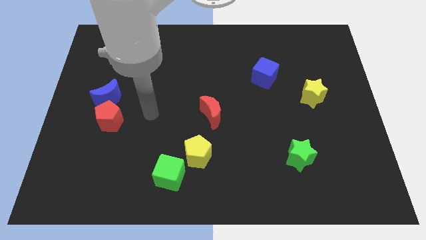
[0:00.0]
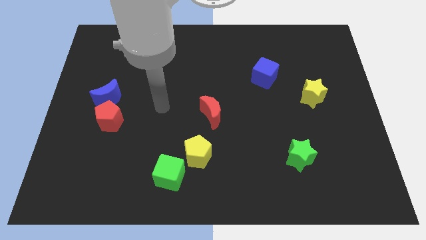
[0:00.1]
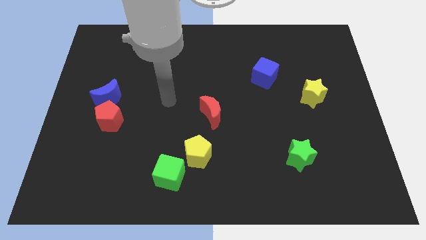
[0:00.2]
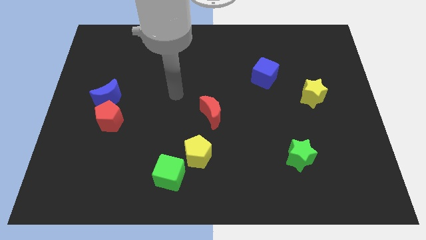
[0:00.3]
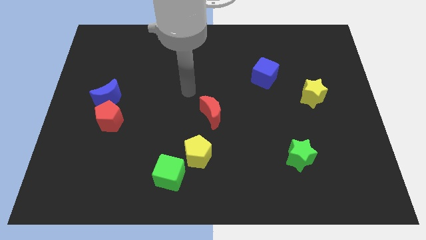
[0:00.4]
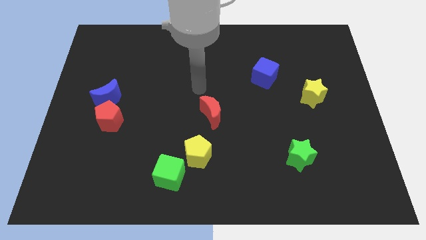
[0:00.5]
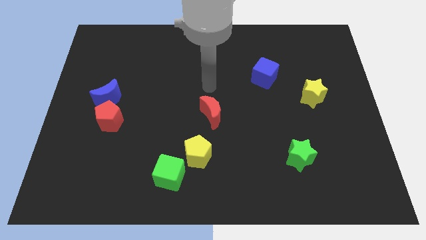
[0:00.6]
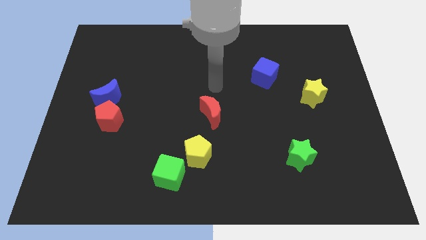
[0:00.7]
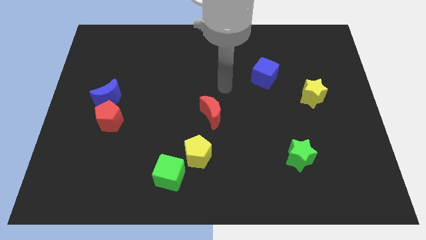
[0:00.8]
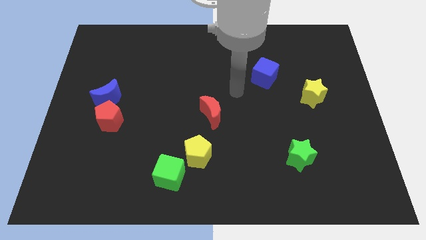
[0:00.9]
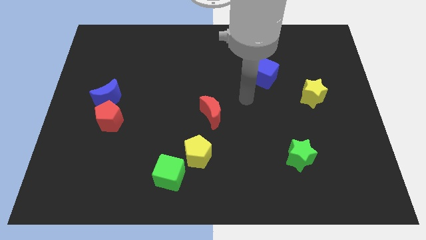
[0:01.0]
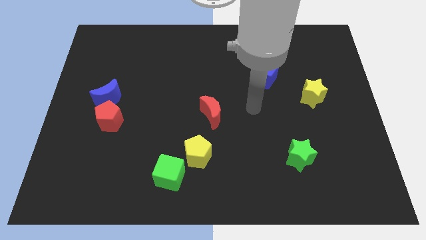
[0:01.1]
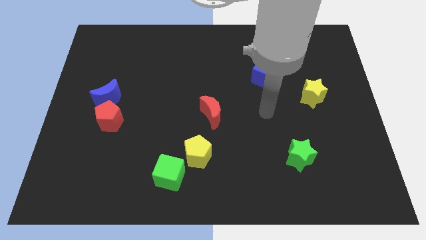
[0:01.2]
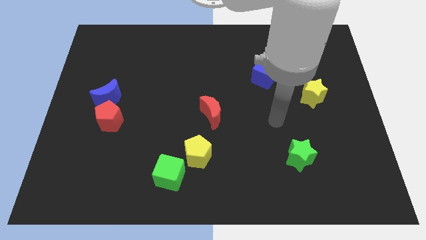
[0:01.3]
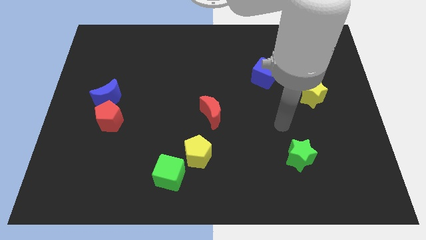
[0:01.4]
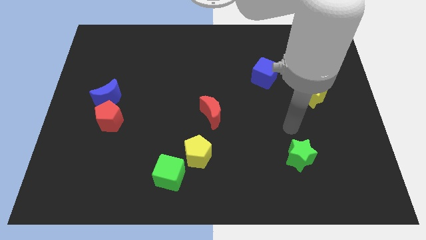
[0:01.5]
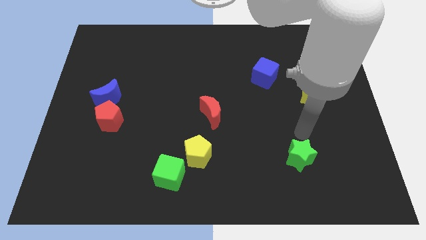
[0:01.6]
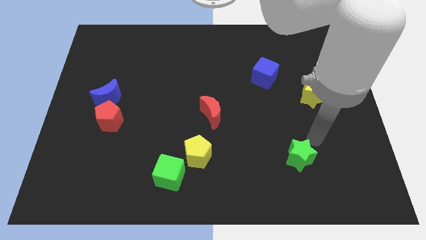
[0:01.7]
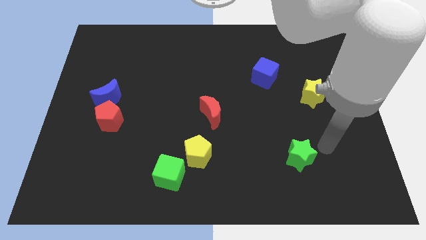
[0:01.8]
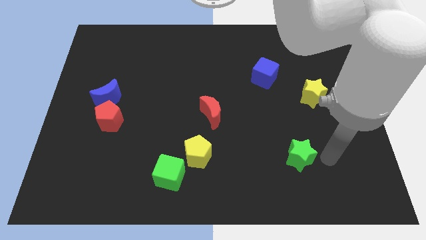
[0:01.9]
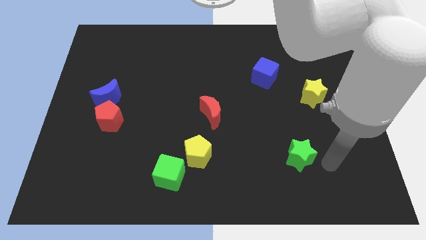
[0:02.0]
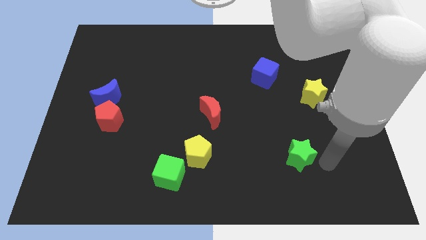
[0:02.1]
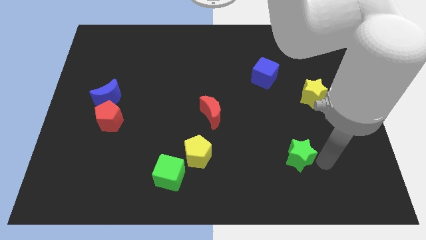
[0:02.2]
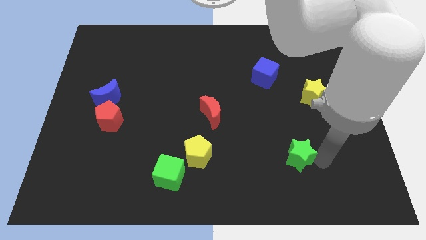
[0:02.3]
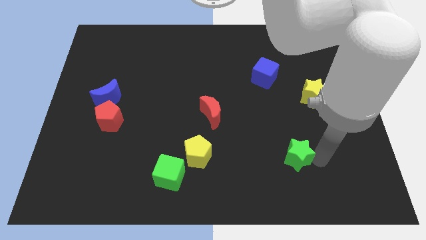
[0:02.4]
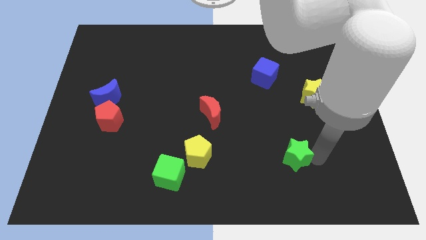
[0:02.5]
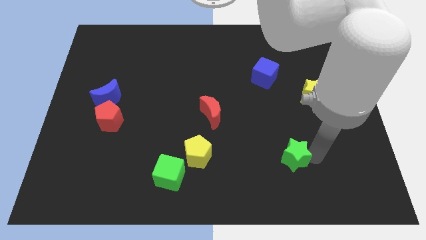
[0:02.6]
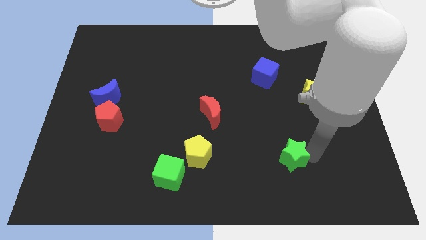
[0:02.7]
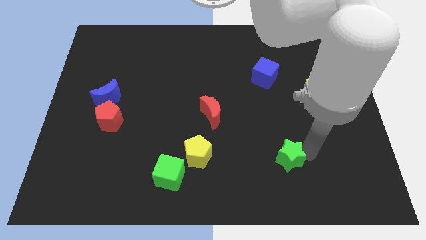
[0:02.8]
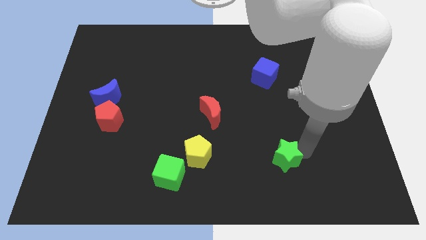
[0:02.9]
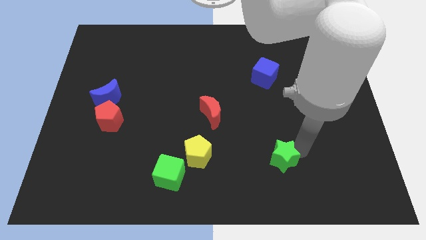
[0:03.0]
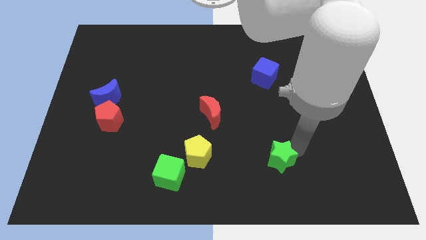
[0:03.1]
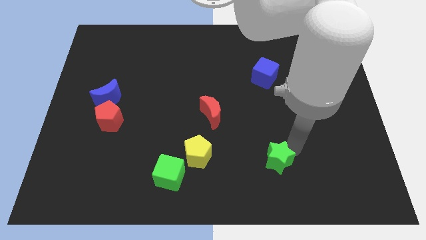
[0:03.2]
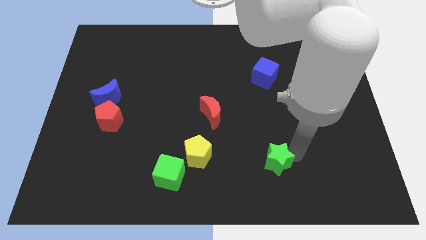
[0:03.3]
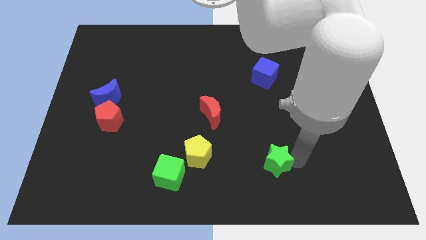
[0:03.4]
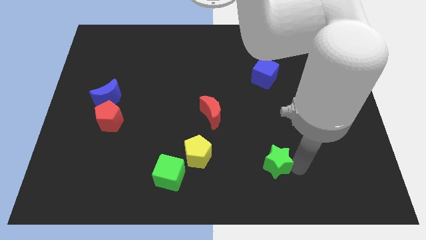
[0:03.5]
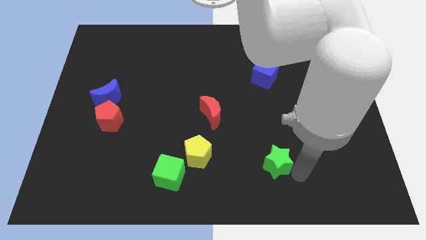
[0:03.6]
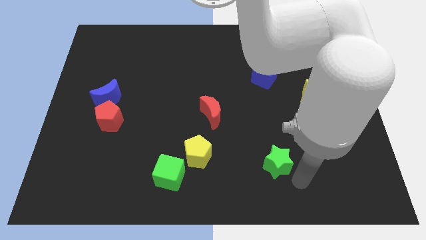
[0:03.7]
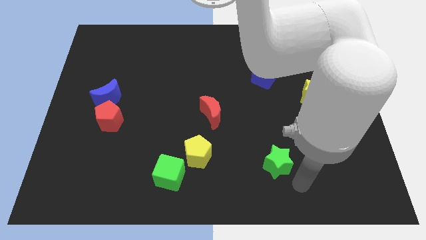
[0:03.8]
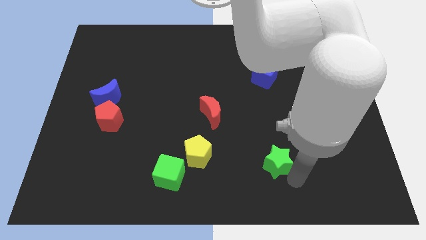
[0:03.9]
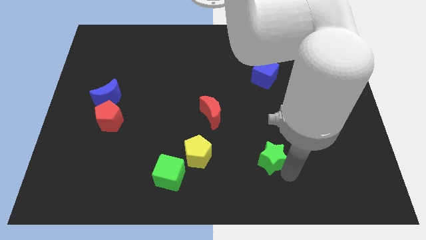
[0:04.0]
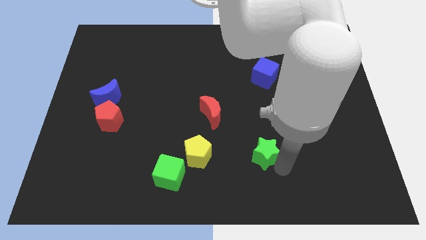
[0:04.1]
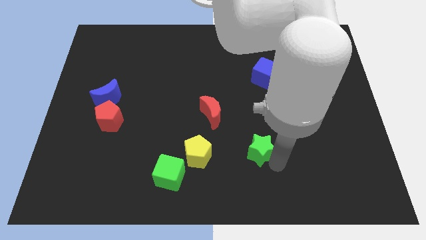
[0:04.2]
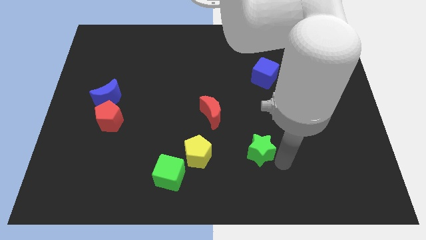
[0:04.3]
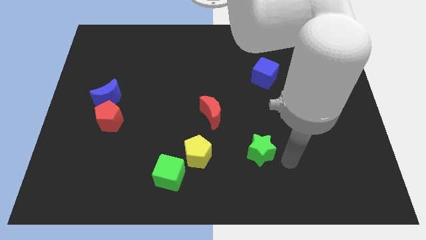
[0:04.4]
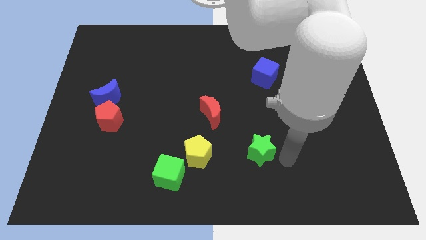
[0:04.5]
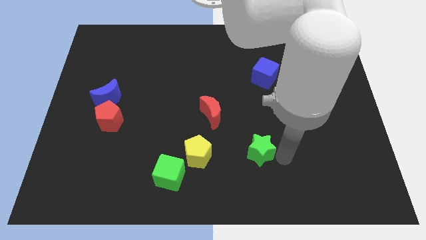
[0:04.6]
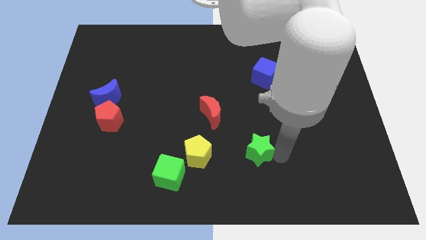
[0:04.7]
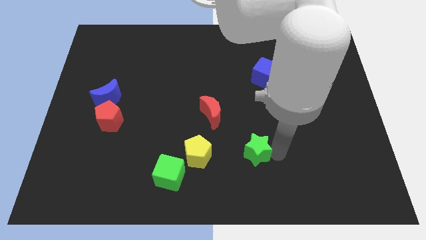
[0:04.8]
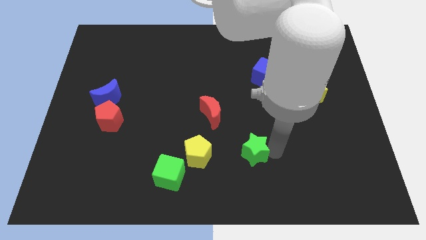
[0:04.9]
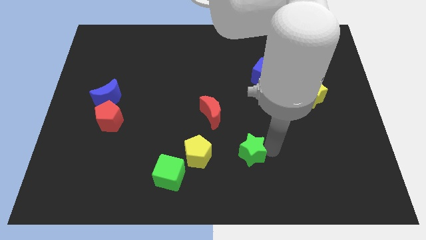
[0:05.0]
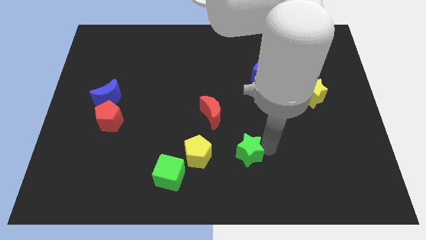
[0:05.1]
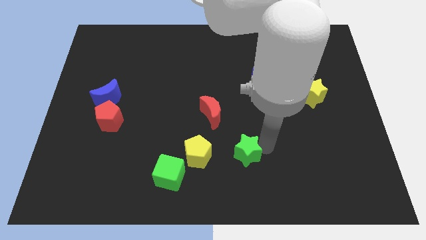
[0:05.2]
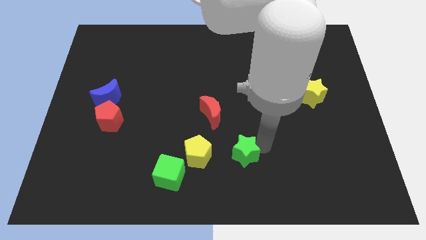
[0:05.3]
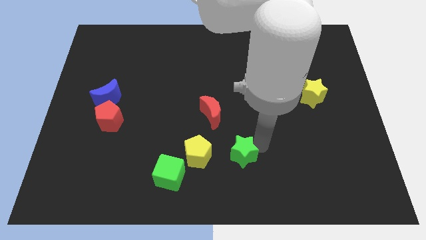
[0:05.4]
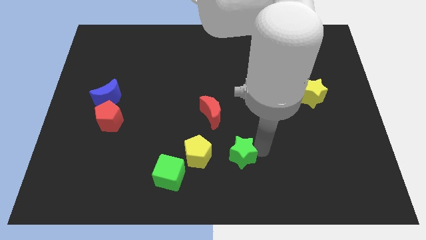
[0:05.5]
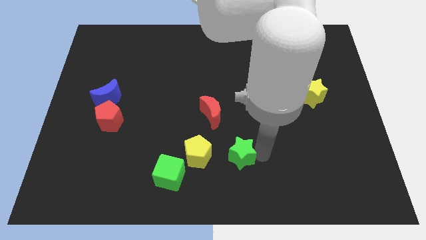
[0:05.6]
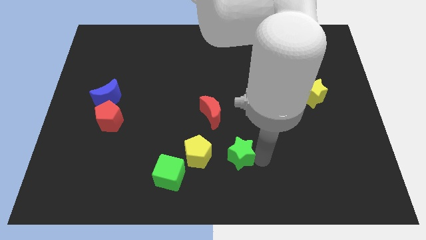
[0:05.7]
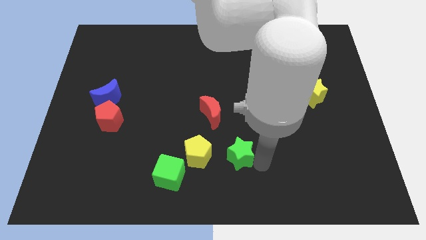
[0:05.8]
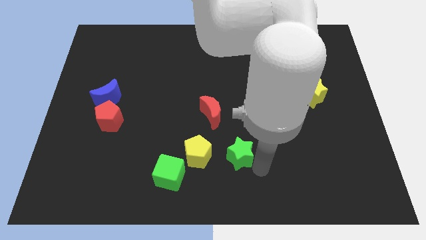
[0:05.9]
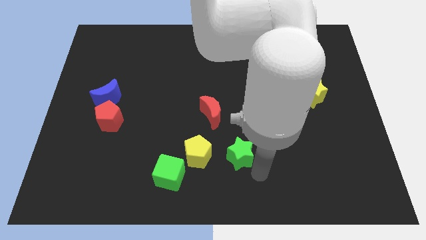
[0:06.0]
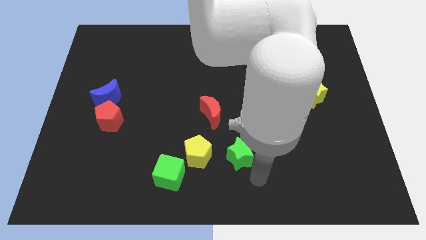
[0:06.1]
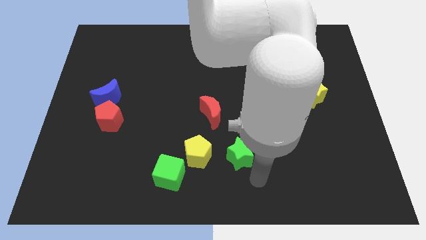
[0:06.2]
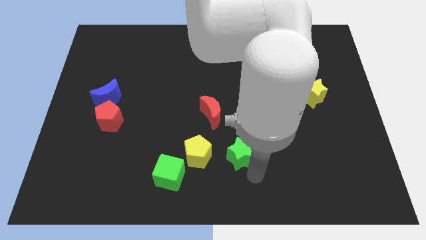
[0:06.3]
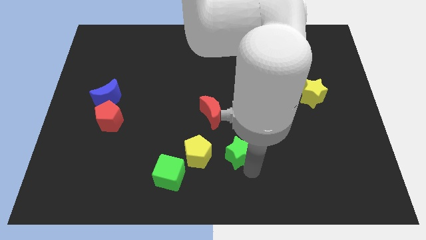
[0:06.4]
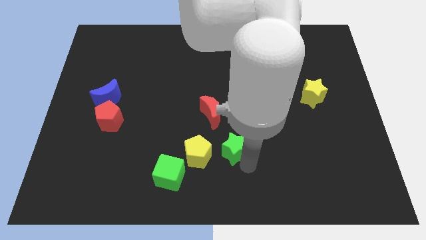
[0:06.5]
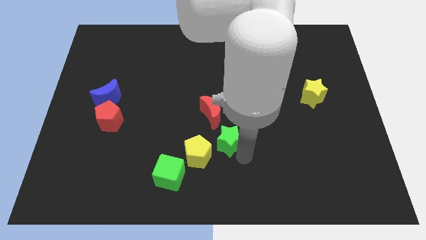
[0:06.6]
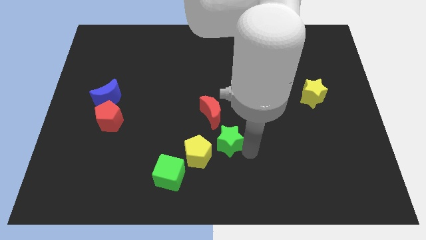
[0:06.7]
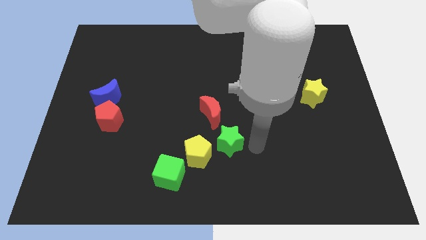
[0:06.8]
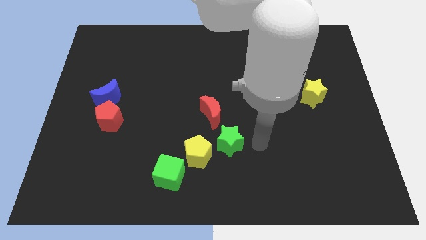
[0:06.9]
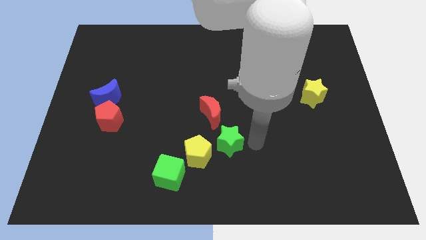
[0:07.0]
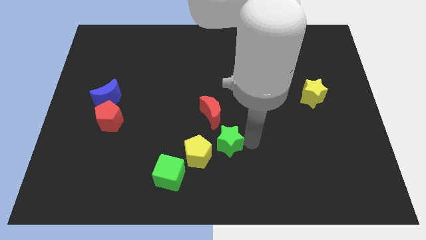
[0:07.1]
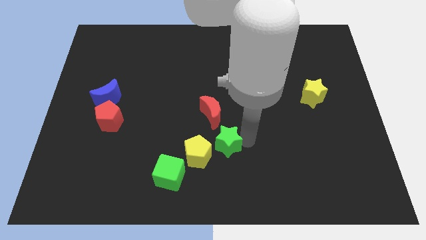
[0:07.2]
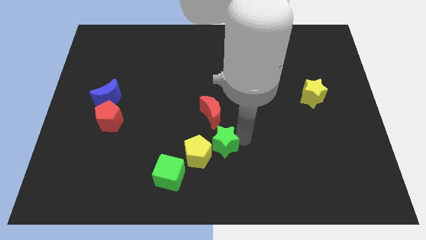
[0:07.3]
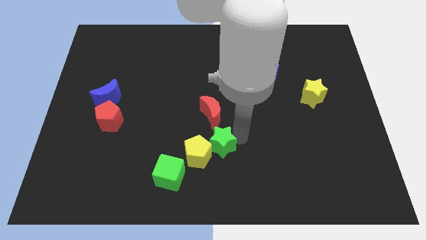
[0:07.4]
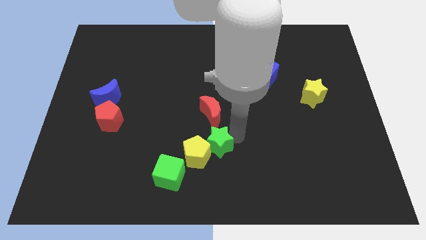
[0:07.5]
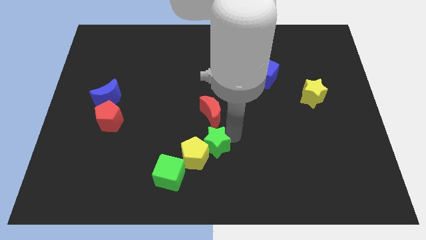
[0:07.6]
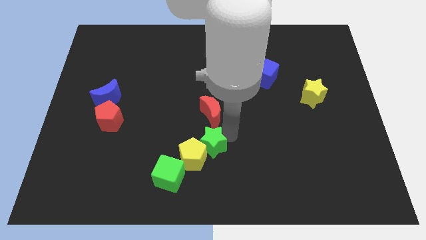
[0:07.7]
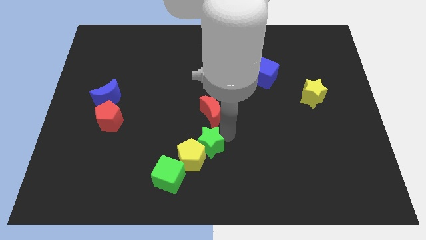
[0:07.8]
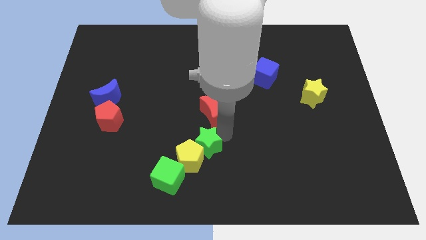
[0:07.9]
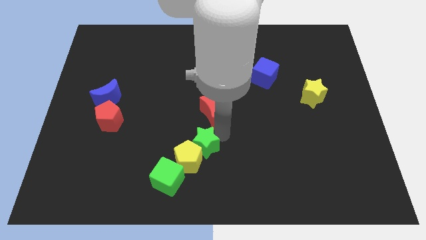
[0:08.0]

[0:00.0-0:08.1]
push the green star to the left
